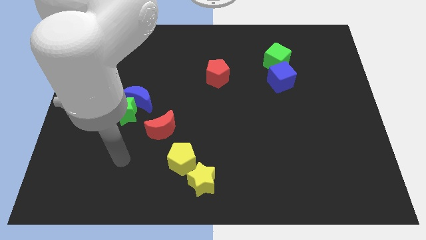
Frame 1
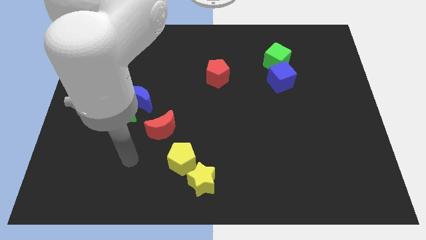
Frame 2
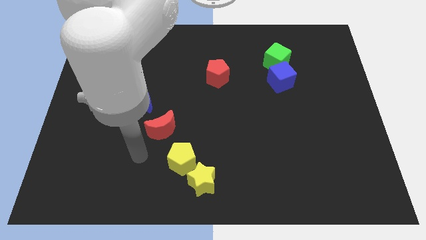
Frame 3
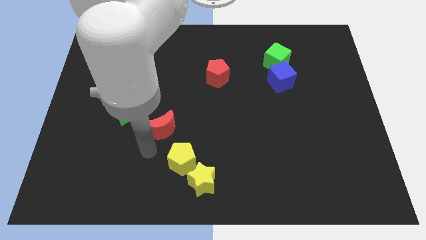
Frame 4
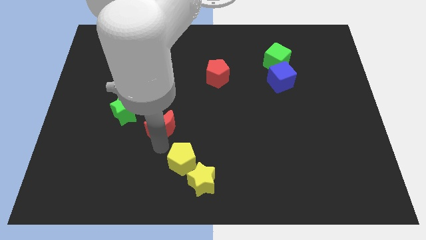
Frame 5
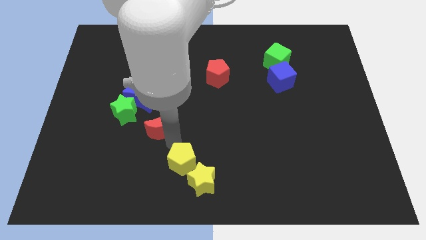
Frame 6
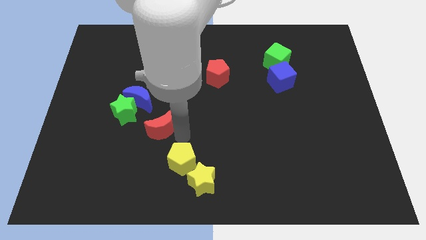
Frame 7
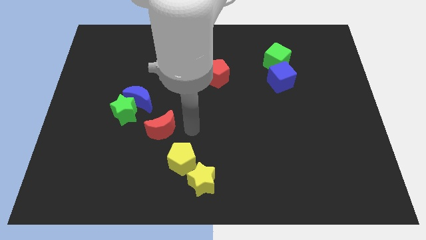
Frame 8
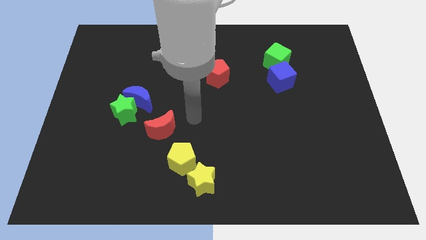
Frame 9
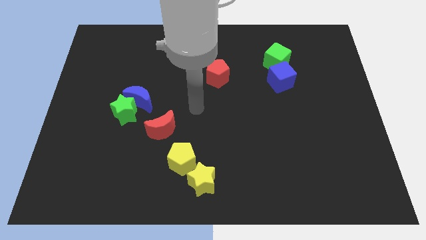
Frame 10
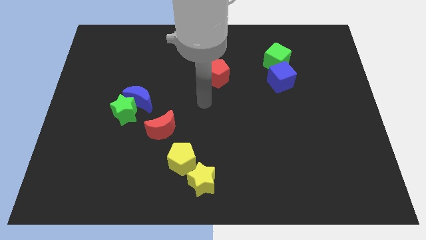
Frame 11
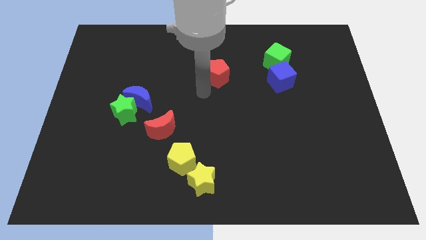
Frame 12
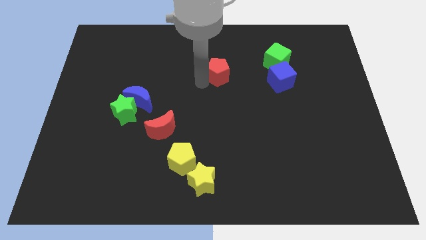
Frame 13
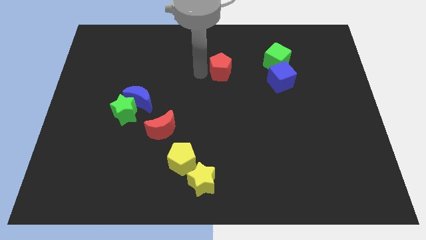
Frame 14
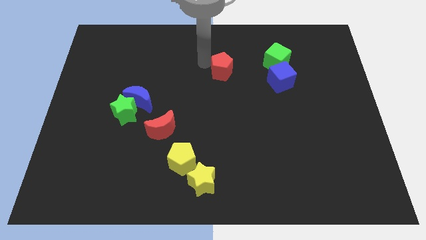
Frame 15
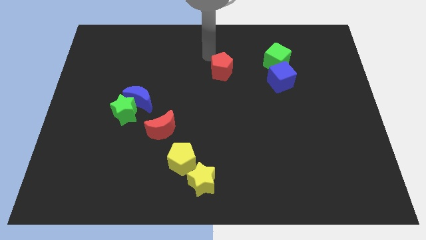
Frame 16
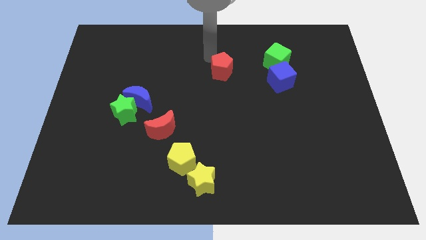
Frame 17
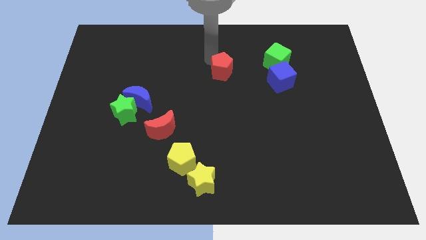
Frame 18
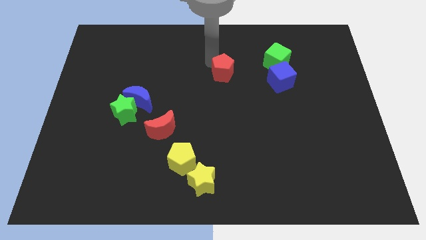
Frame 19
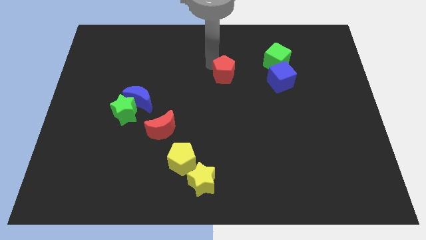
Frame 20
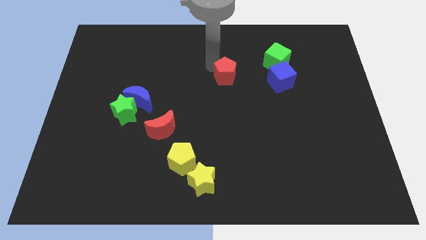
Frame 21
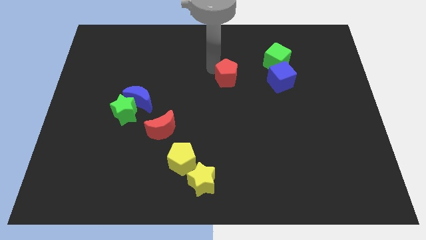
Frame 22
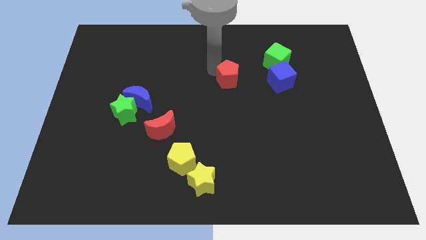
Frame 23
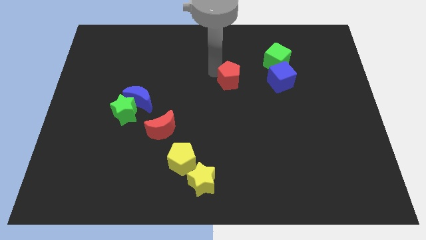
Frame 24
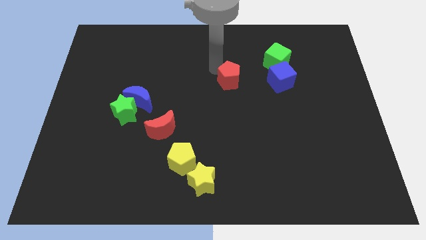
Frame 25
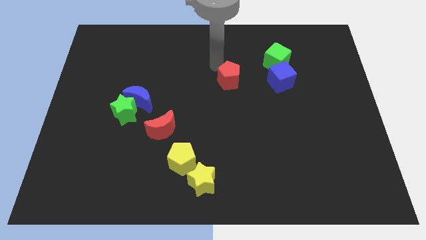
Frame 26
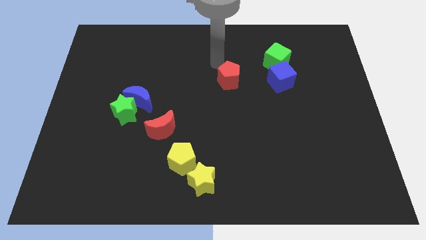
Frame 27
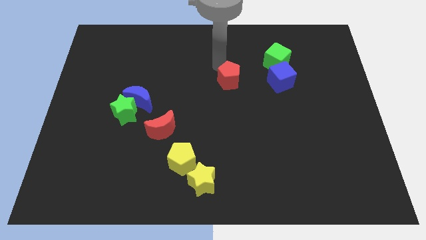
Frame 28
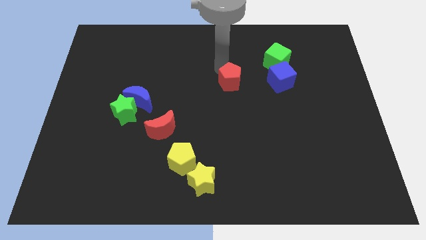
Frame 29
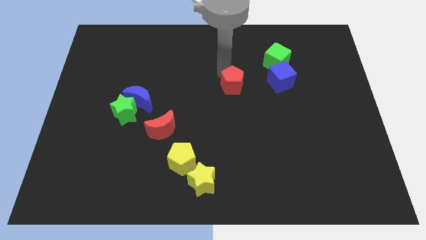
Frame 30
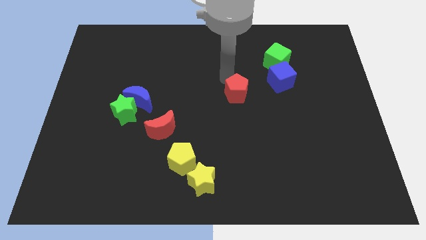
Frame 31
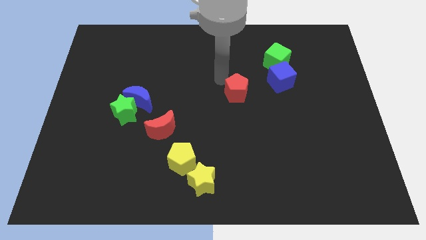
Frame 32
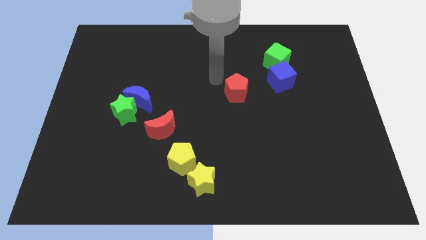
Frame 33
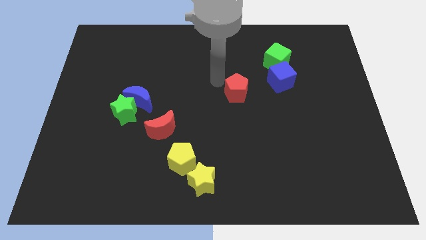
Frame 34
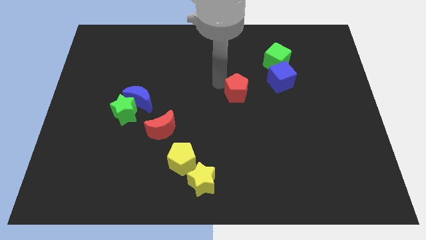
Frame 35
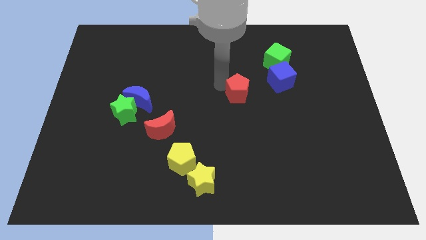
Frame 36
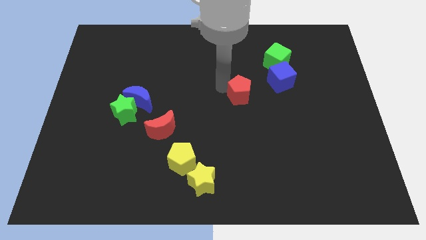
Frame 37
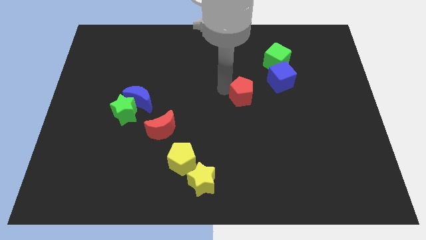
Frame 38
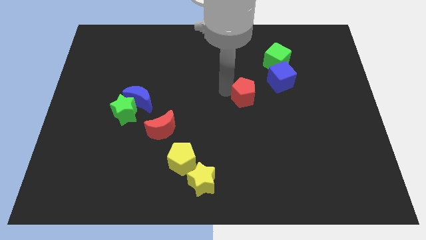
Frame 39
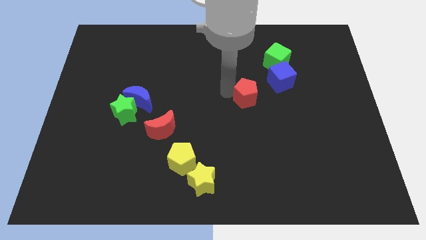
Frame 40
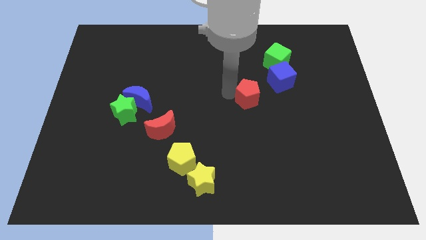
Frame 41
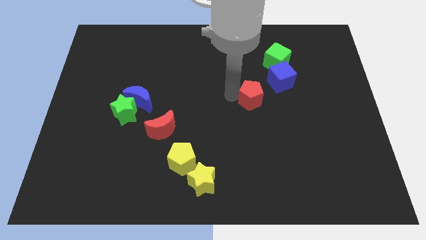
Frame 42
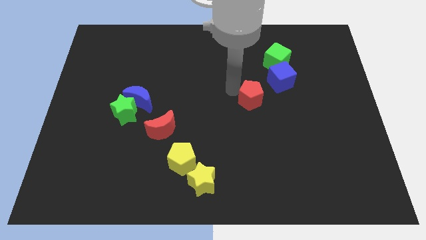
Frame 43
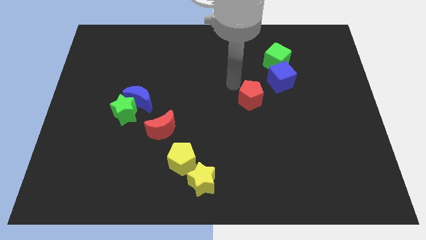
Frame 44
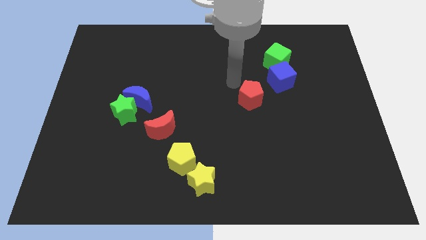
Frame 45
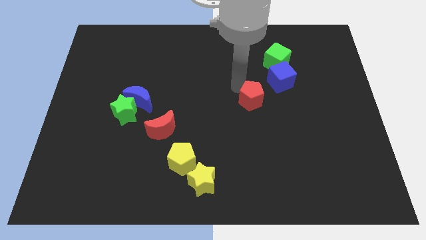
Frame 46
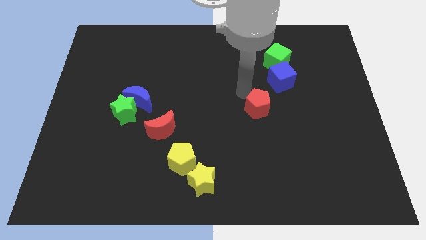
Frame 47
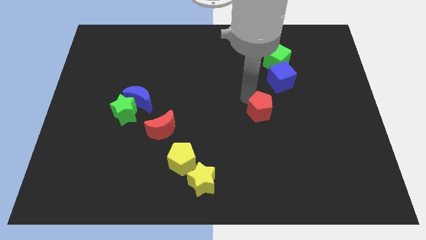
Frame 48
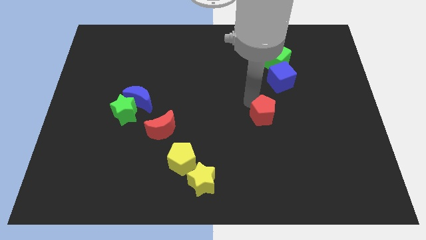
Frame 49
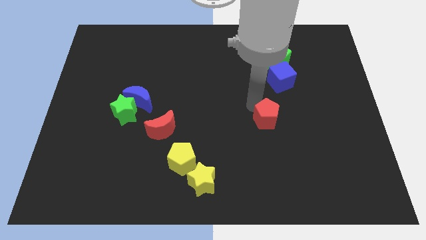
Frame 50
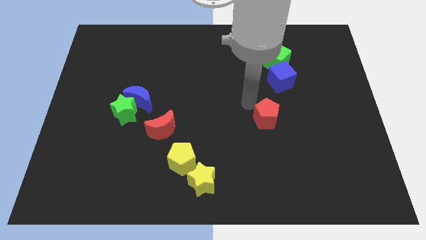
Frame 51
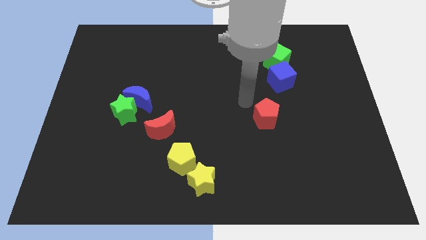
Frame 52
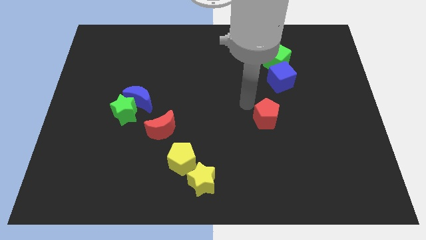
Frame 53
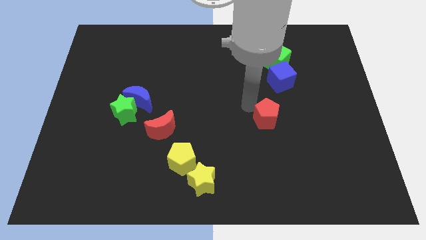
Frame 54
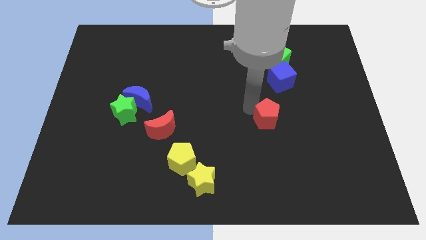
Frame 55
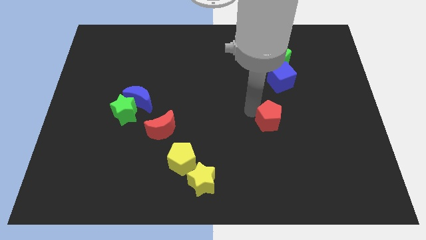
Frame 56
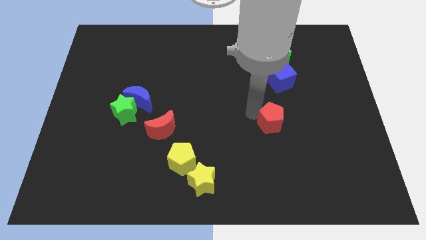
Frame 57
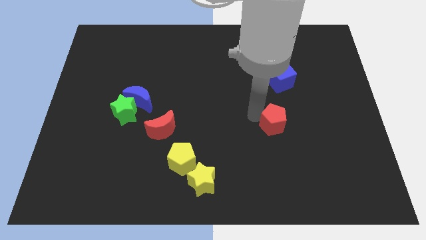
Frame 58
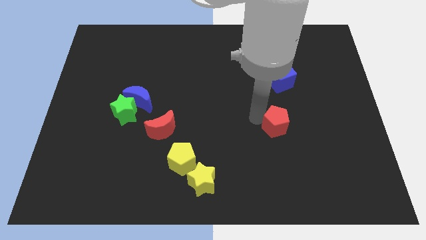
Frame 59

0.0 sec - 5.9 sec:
push the red pentagon down and right diagonally

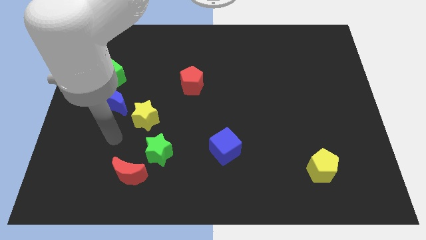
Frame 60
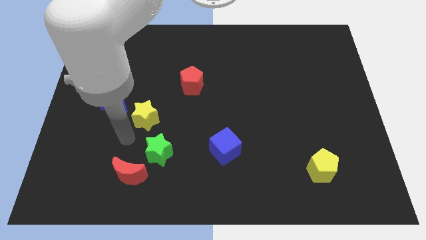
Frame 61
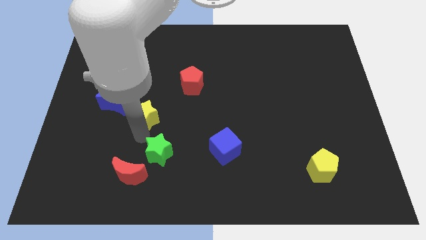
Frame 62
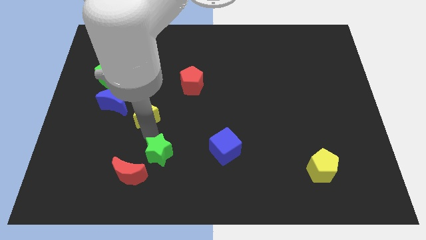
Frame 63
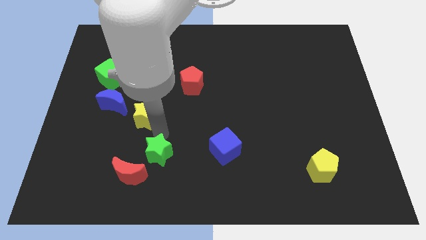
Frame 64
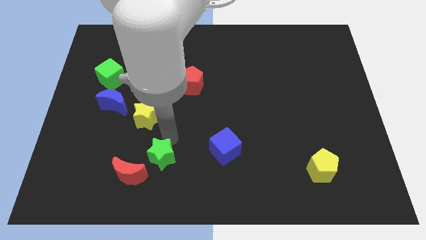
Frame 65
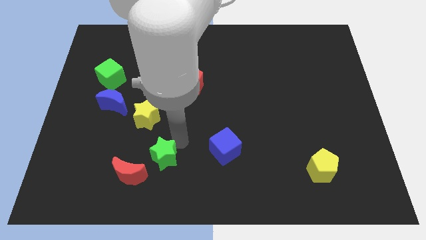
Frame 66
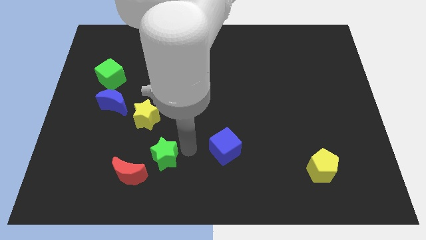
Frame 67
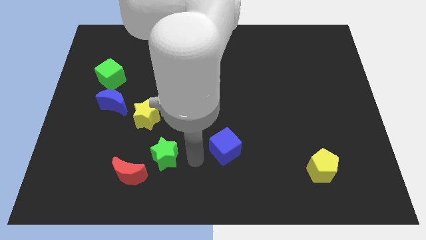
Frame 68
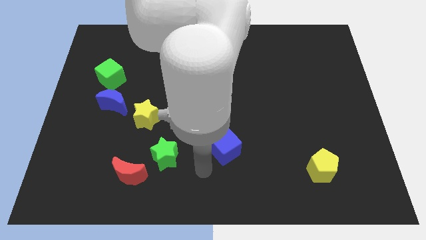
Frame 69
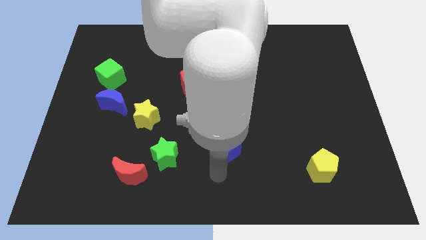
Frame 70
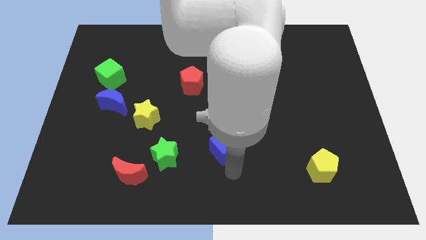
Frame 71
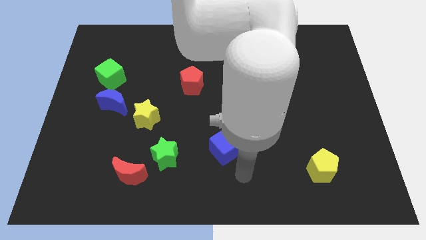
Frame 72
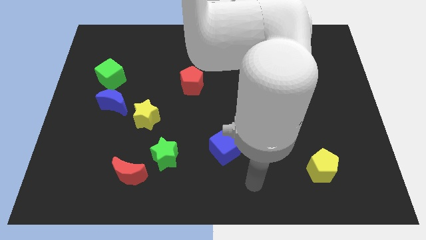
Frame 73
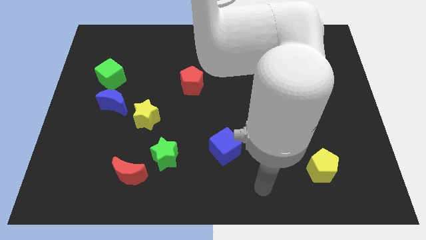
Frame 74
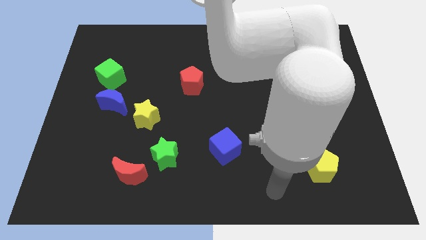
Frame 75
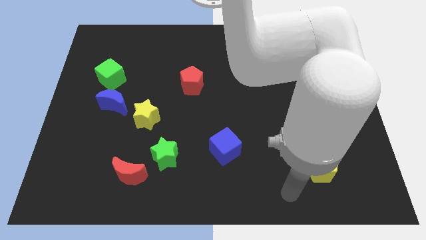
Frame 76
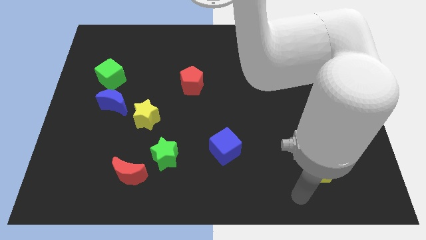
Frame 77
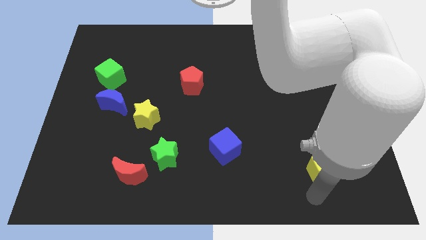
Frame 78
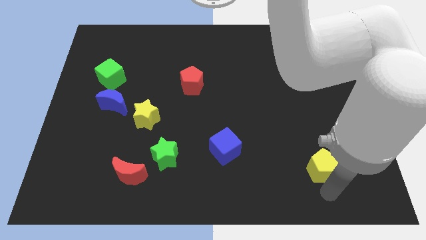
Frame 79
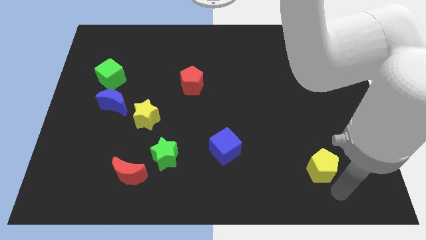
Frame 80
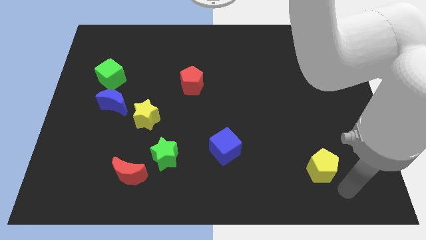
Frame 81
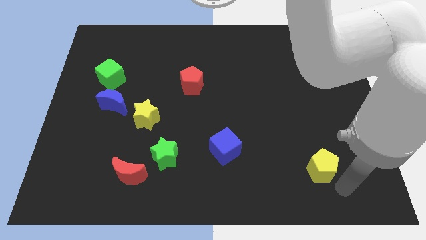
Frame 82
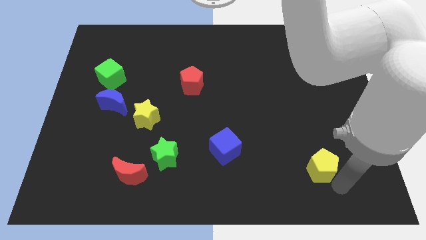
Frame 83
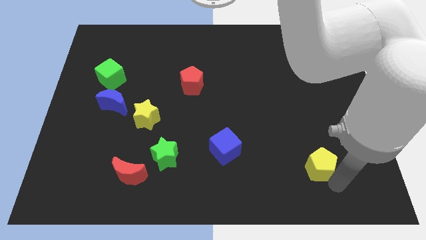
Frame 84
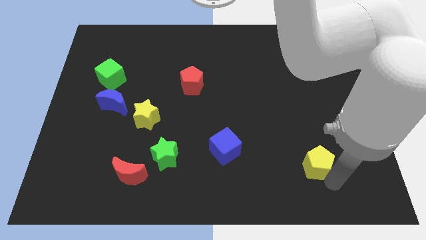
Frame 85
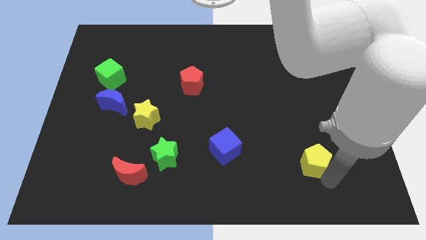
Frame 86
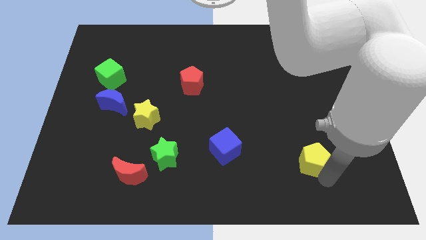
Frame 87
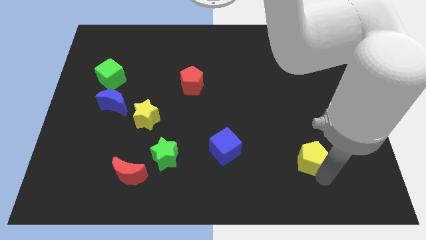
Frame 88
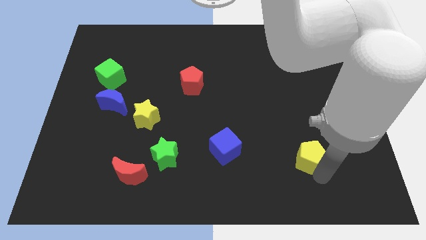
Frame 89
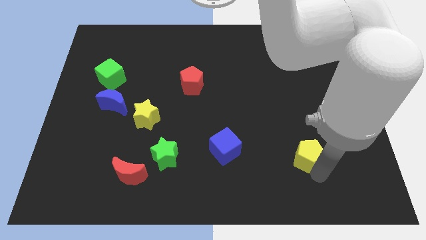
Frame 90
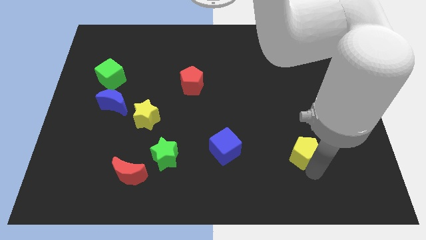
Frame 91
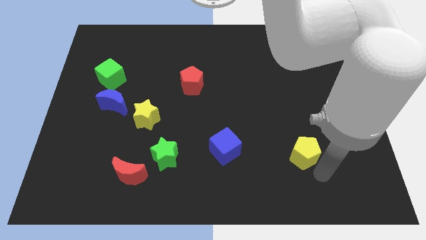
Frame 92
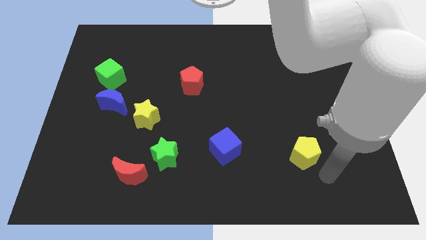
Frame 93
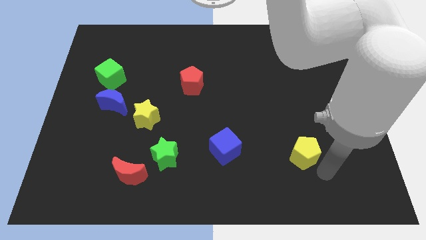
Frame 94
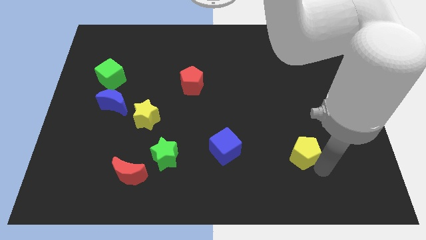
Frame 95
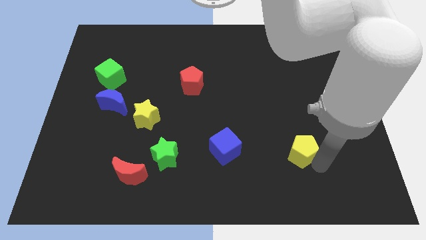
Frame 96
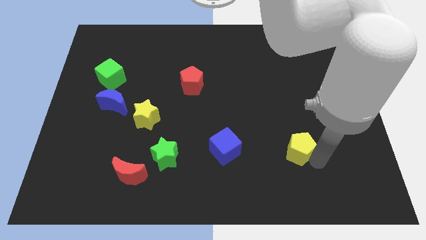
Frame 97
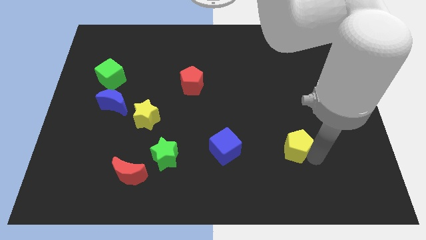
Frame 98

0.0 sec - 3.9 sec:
push the yellow pentagon a little bit upwards and to the left diagonally
